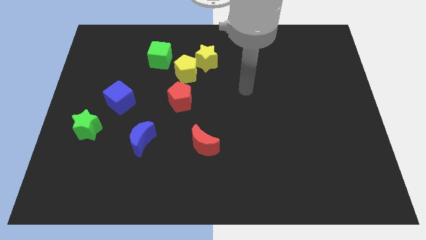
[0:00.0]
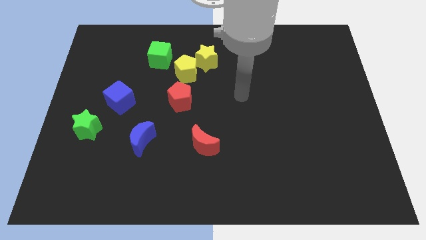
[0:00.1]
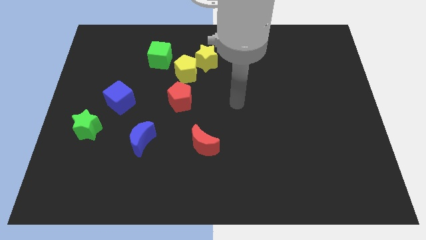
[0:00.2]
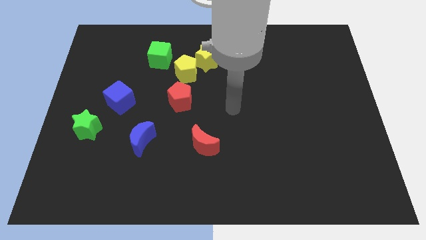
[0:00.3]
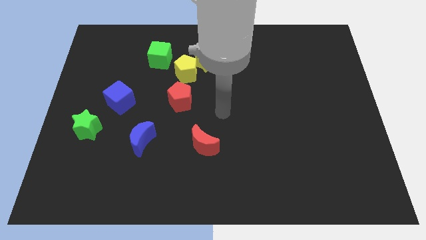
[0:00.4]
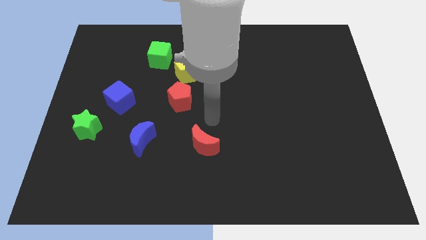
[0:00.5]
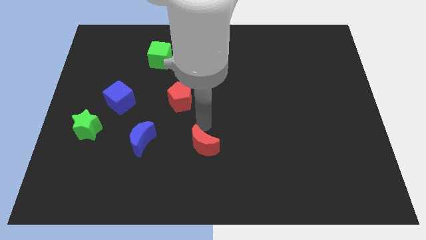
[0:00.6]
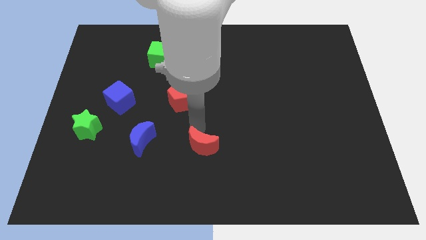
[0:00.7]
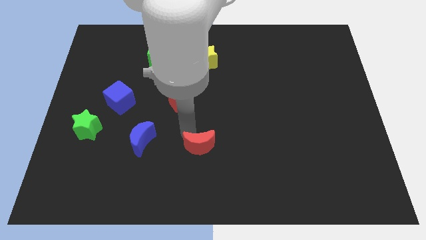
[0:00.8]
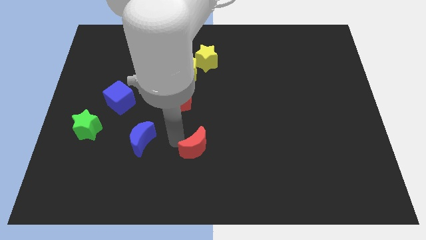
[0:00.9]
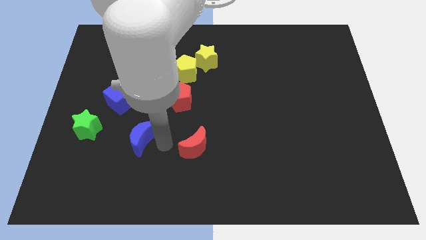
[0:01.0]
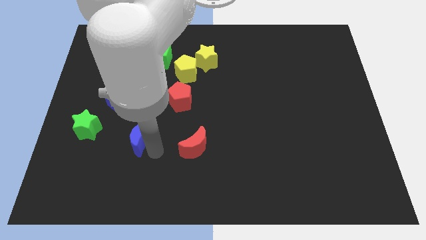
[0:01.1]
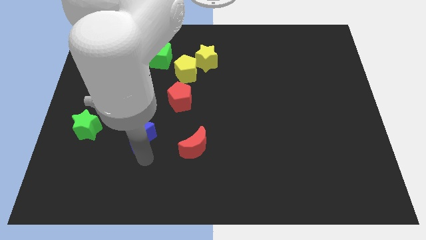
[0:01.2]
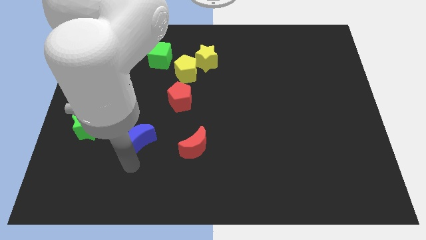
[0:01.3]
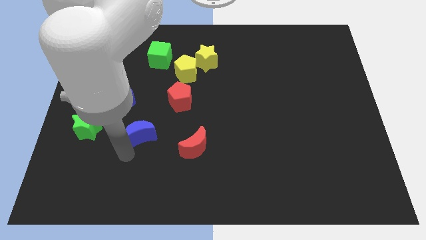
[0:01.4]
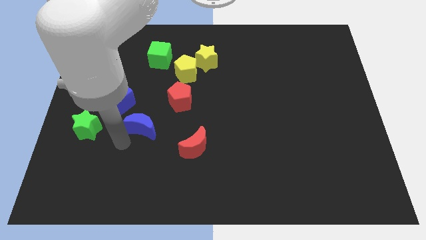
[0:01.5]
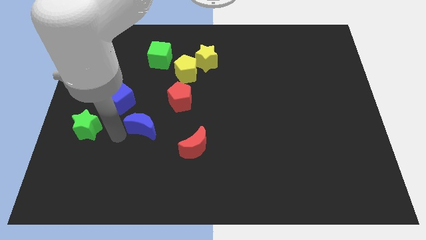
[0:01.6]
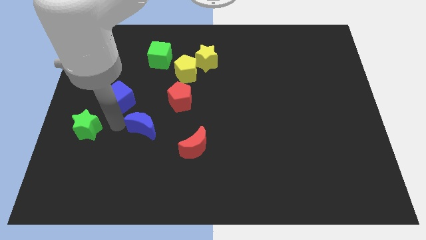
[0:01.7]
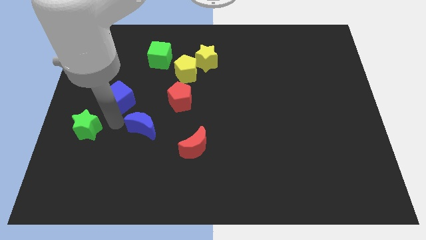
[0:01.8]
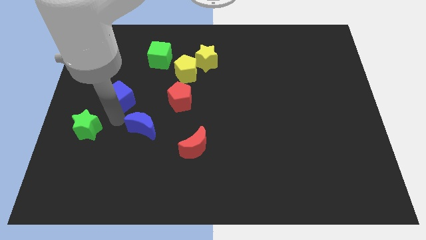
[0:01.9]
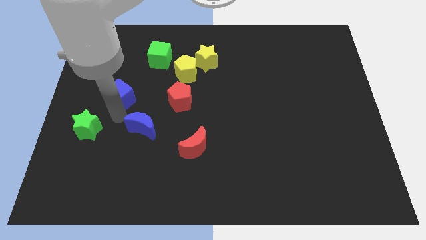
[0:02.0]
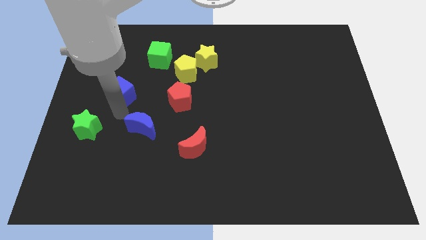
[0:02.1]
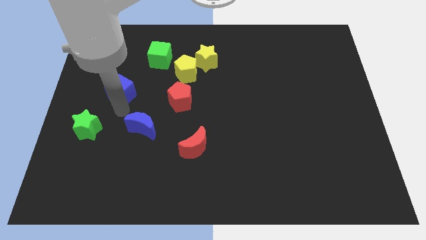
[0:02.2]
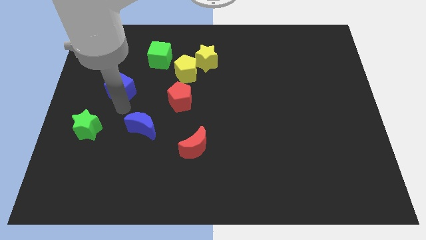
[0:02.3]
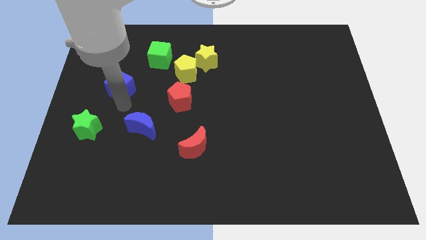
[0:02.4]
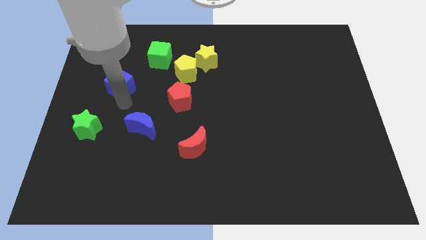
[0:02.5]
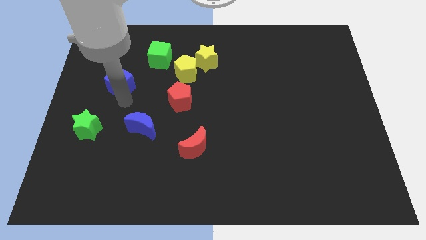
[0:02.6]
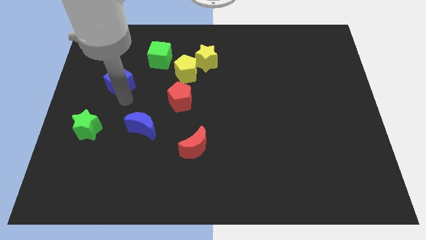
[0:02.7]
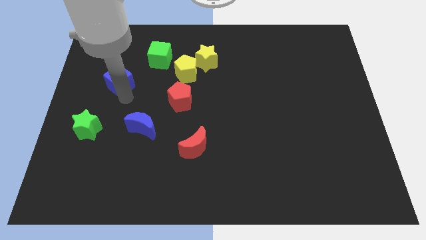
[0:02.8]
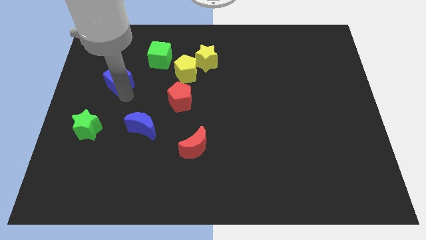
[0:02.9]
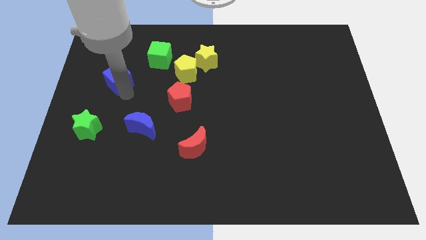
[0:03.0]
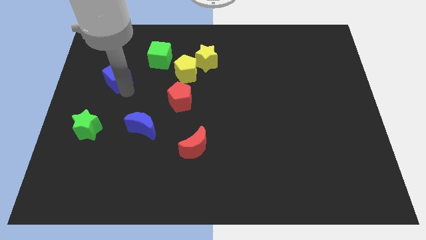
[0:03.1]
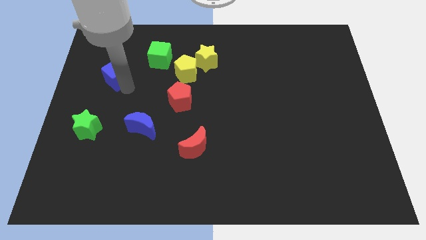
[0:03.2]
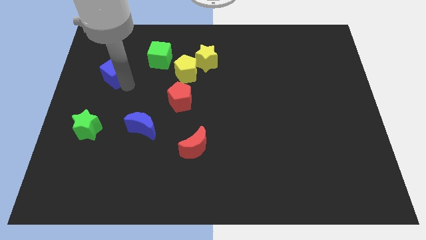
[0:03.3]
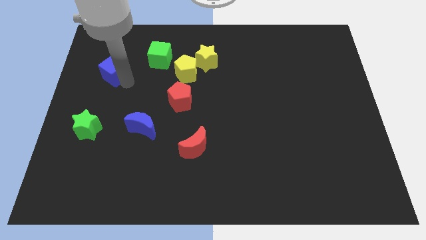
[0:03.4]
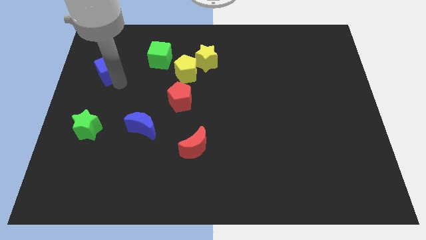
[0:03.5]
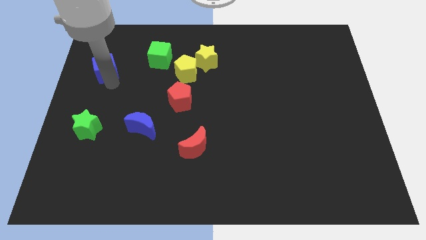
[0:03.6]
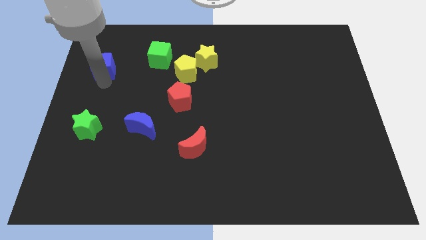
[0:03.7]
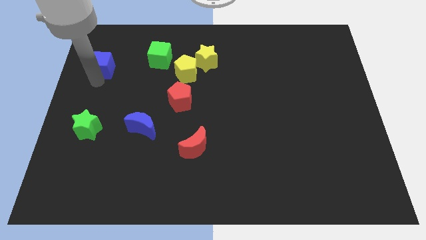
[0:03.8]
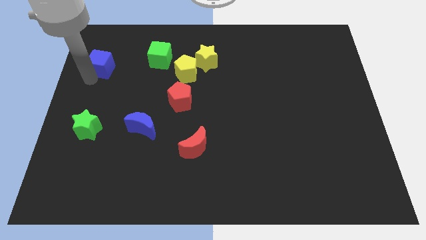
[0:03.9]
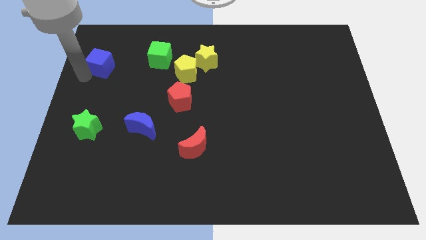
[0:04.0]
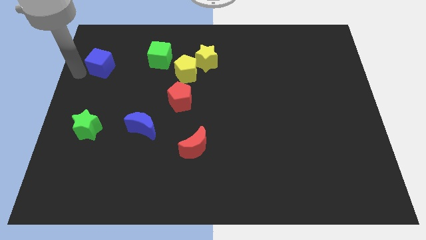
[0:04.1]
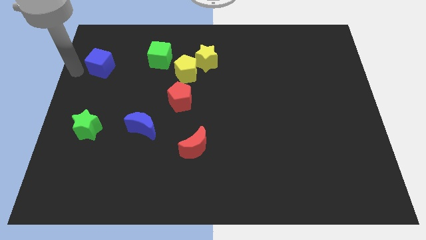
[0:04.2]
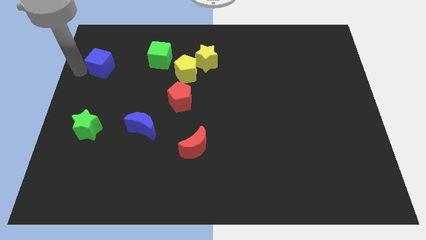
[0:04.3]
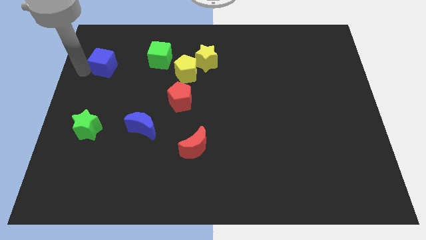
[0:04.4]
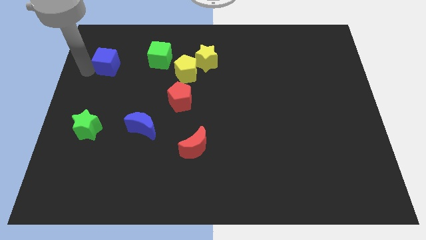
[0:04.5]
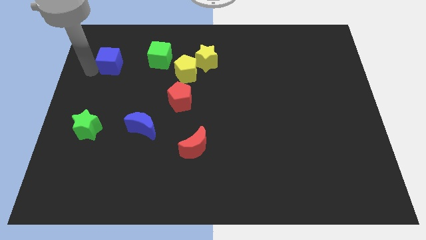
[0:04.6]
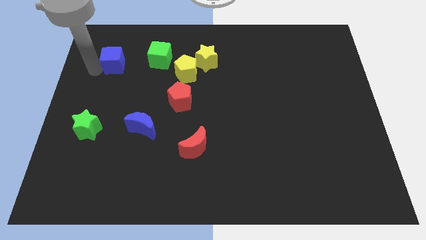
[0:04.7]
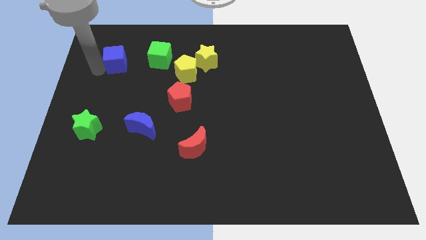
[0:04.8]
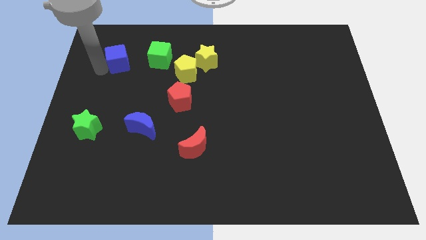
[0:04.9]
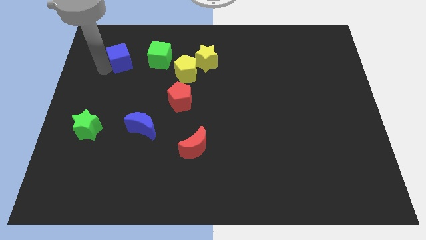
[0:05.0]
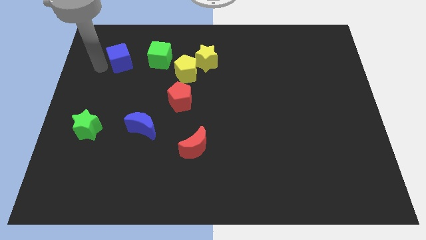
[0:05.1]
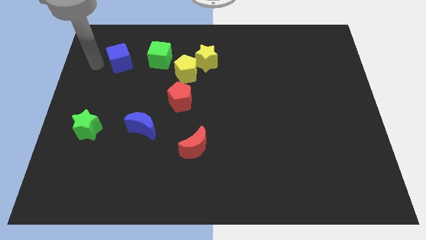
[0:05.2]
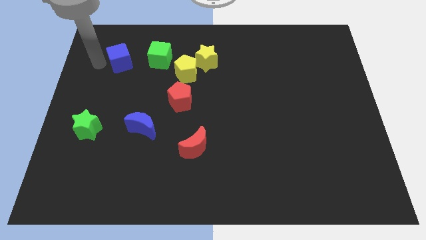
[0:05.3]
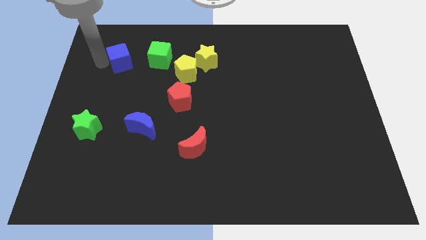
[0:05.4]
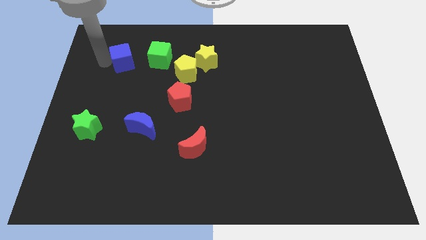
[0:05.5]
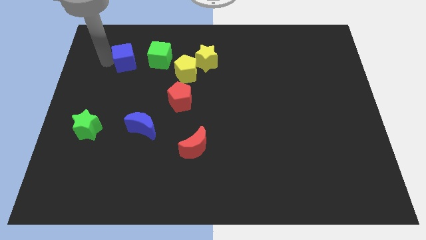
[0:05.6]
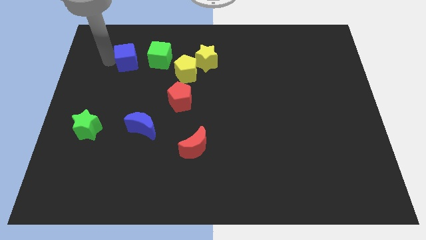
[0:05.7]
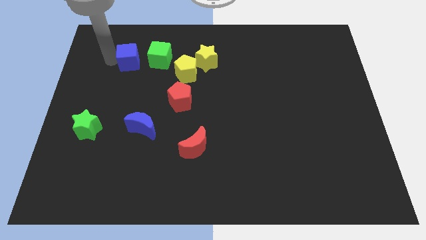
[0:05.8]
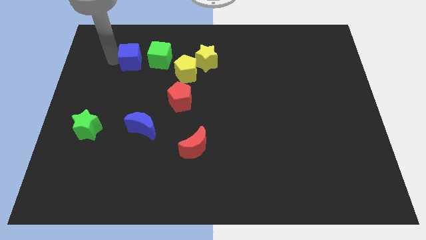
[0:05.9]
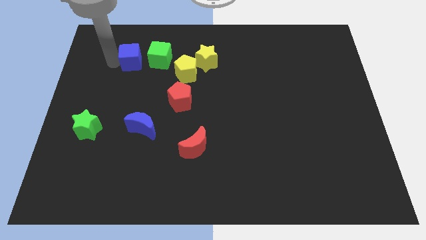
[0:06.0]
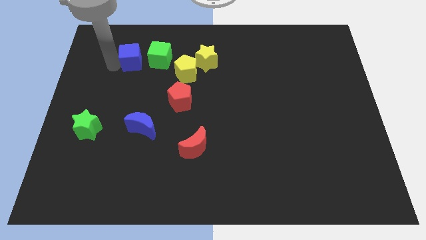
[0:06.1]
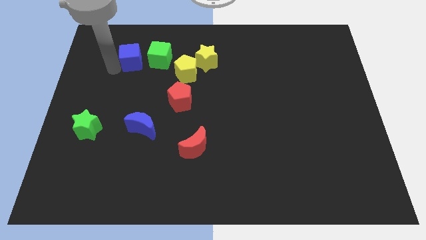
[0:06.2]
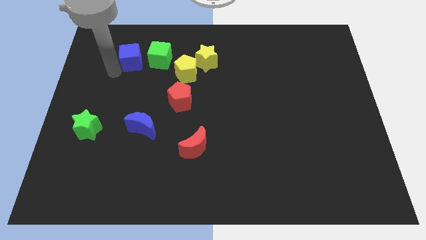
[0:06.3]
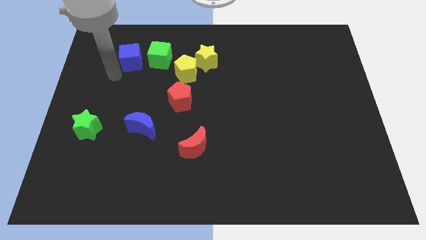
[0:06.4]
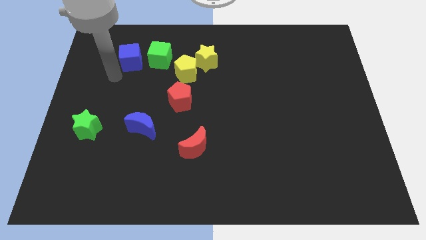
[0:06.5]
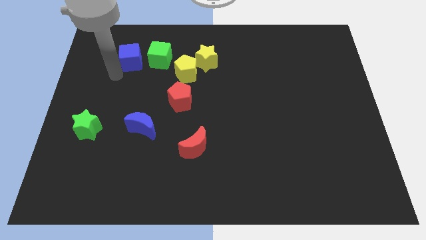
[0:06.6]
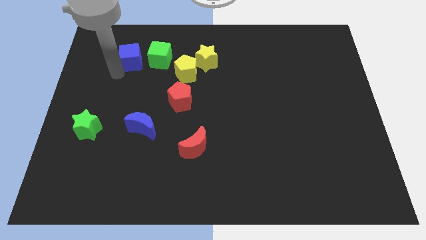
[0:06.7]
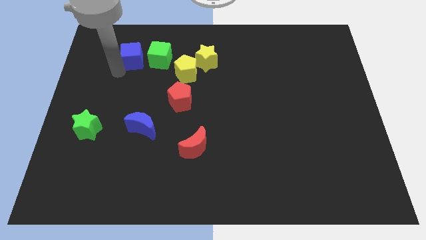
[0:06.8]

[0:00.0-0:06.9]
slide the blue cube somewhat up and to the right diagonally

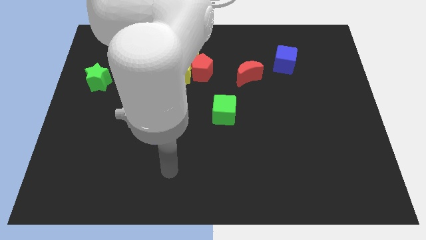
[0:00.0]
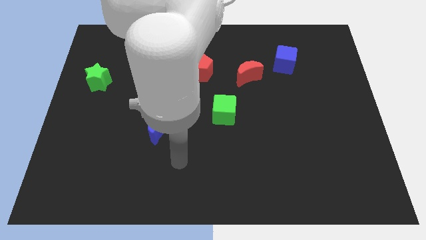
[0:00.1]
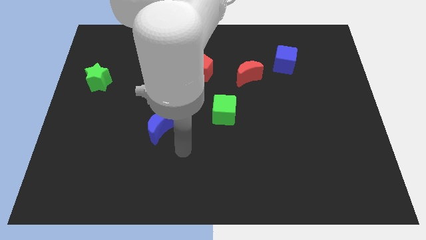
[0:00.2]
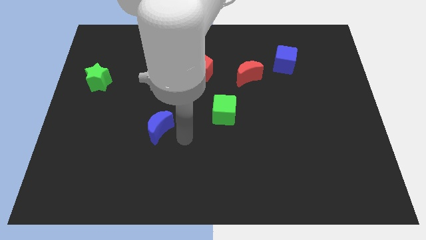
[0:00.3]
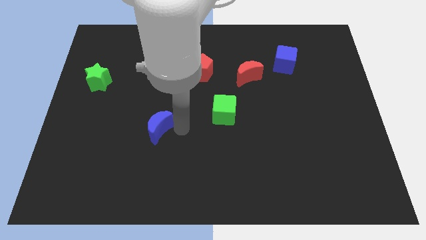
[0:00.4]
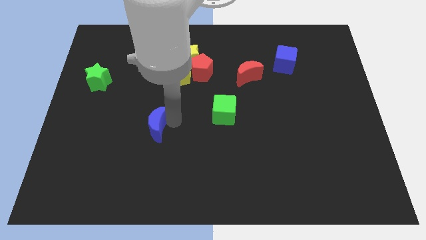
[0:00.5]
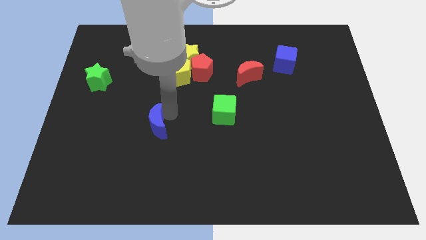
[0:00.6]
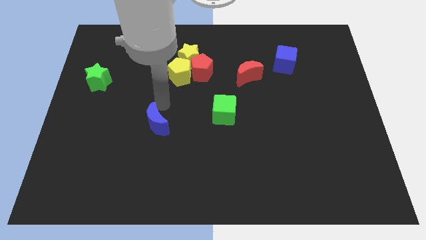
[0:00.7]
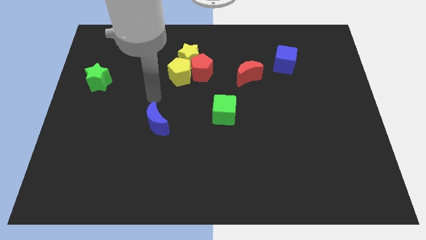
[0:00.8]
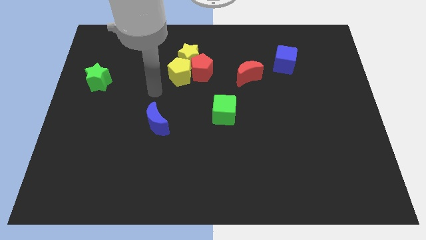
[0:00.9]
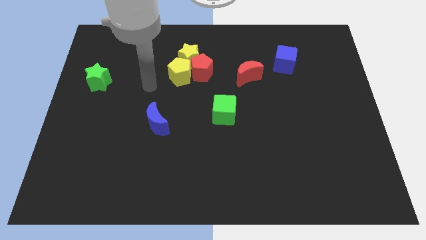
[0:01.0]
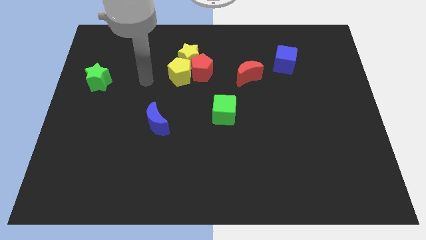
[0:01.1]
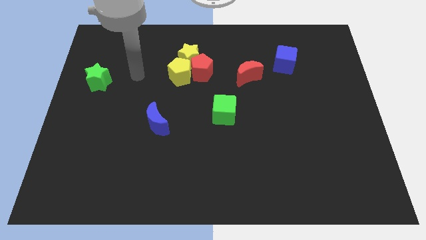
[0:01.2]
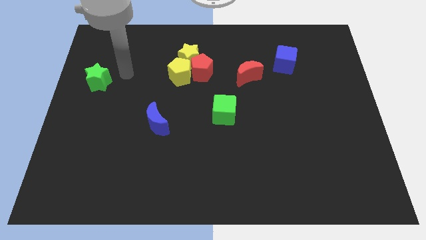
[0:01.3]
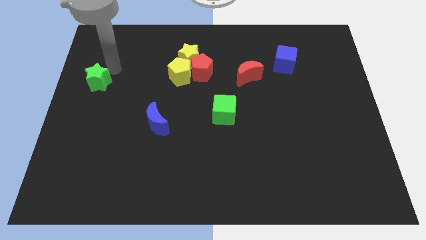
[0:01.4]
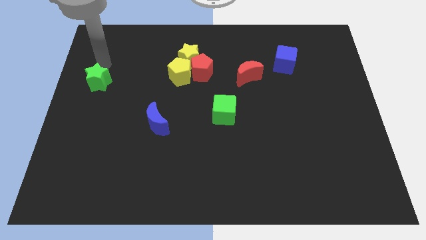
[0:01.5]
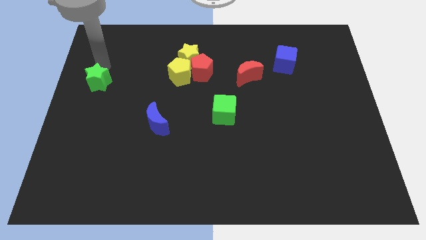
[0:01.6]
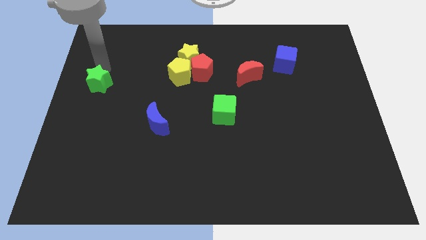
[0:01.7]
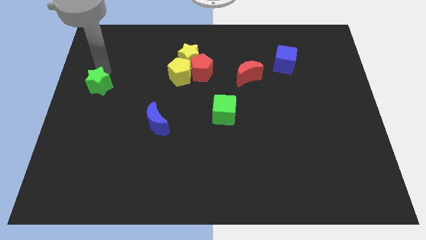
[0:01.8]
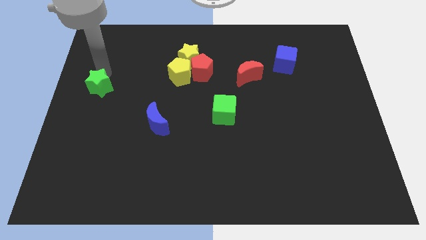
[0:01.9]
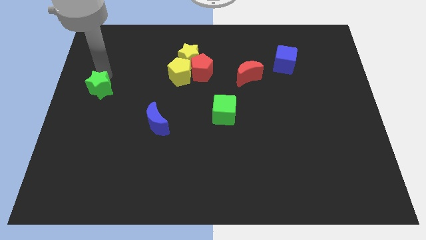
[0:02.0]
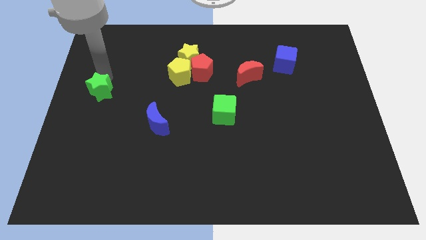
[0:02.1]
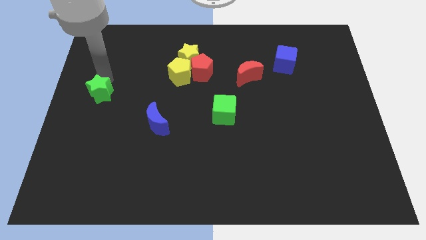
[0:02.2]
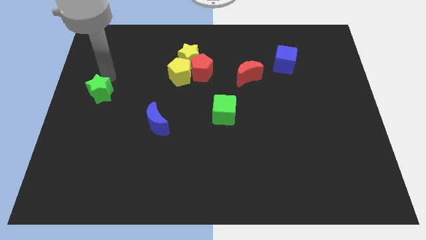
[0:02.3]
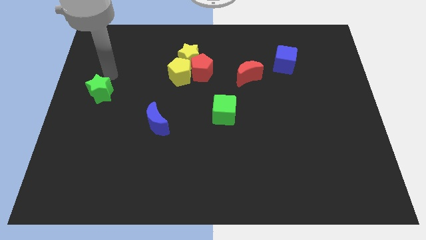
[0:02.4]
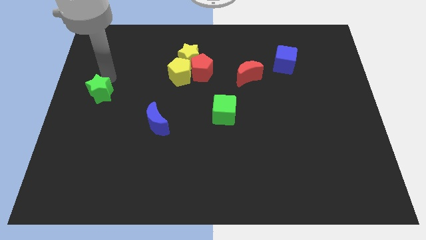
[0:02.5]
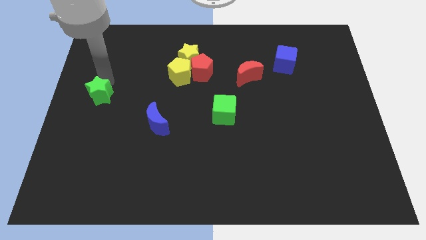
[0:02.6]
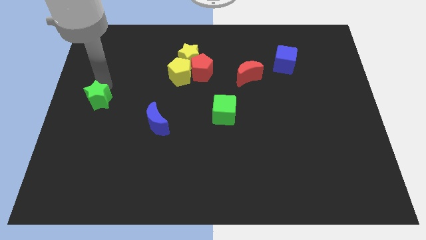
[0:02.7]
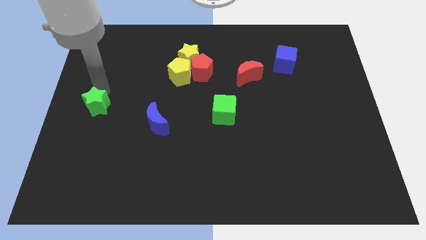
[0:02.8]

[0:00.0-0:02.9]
push the green star a little bit downwards
